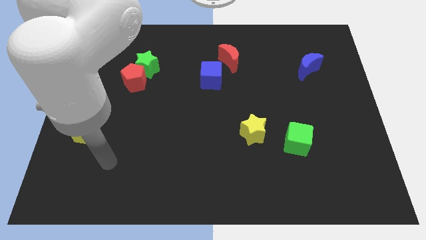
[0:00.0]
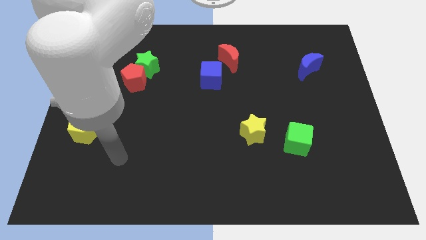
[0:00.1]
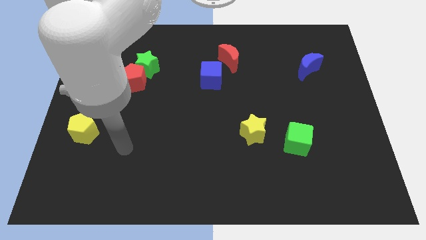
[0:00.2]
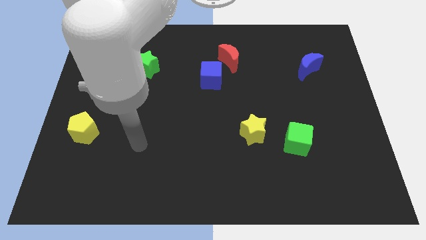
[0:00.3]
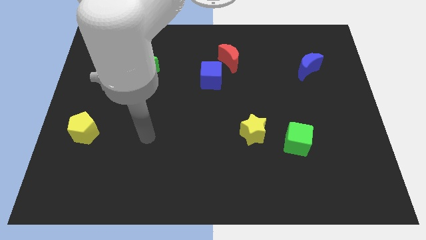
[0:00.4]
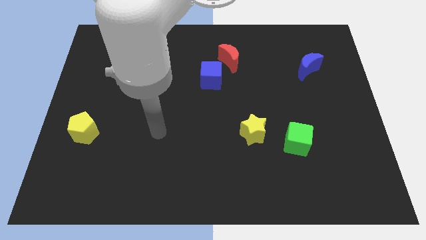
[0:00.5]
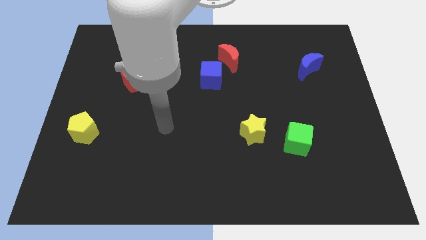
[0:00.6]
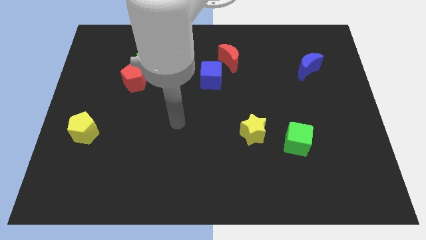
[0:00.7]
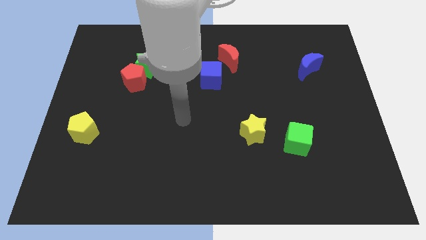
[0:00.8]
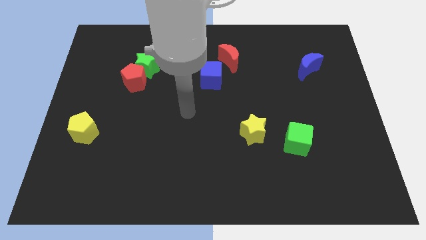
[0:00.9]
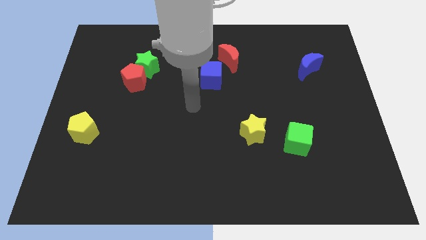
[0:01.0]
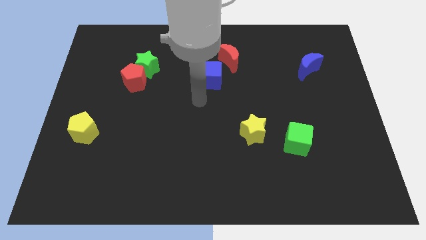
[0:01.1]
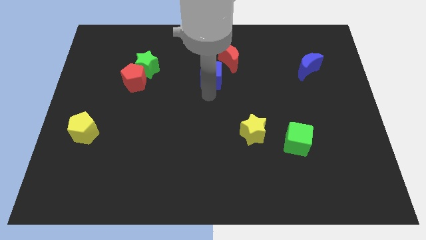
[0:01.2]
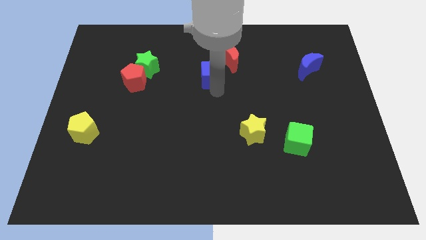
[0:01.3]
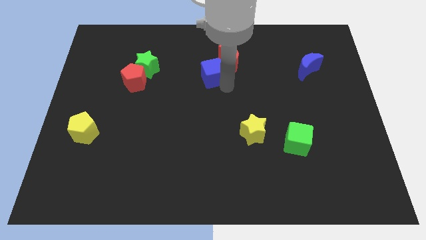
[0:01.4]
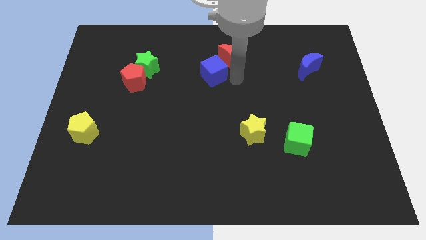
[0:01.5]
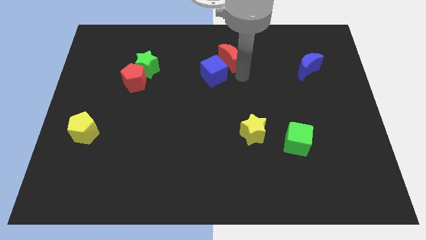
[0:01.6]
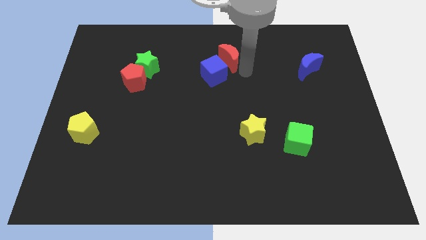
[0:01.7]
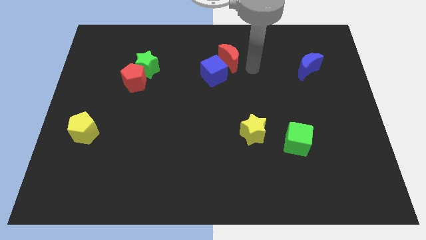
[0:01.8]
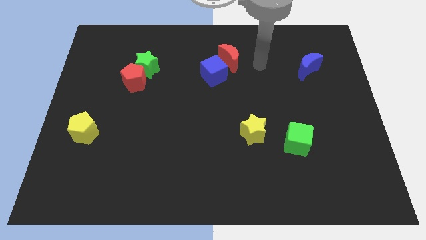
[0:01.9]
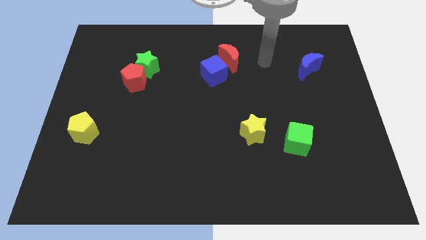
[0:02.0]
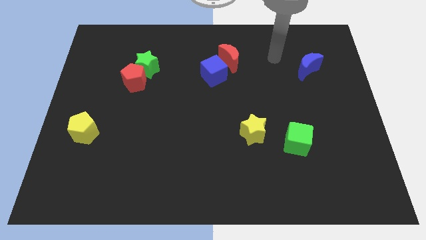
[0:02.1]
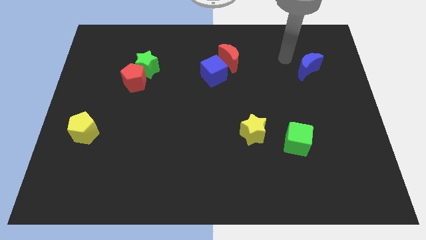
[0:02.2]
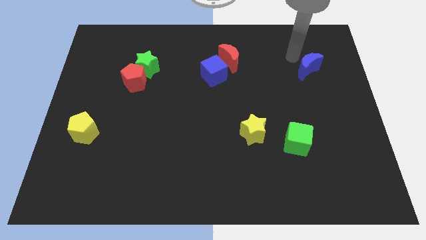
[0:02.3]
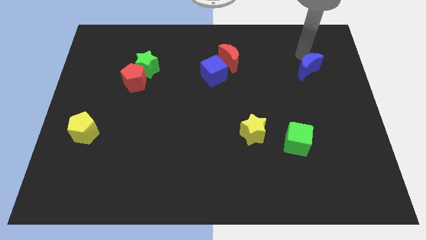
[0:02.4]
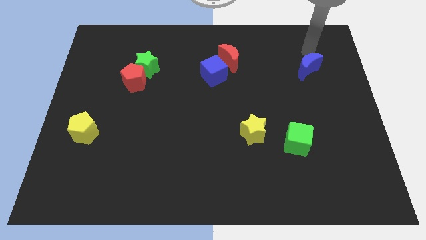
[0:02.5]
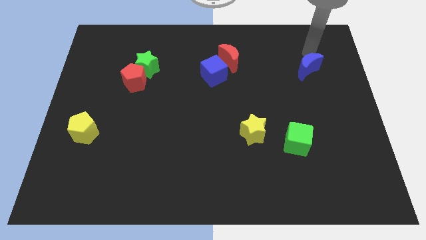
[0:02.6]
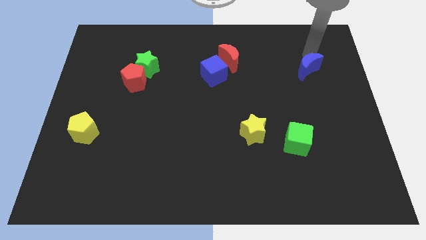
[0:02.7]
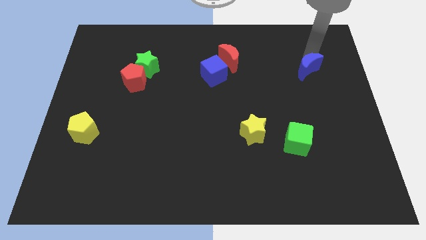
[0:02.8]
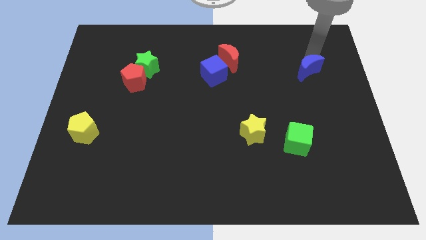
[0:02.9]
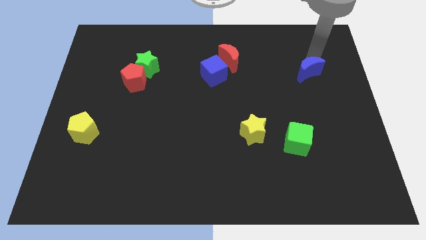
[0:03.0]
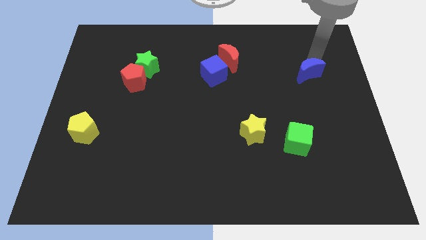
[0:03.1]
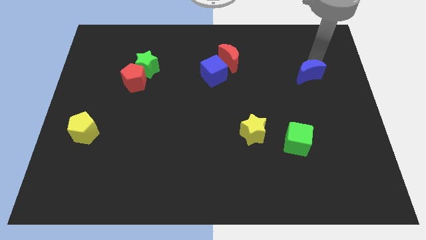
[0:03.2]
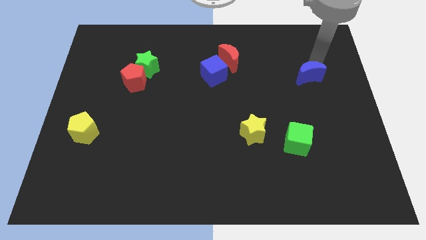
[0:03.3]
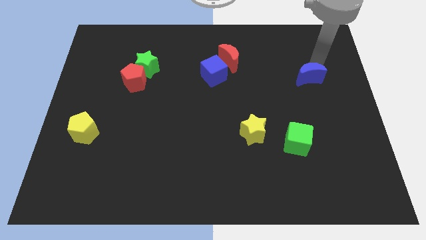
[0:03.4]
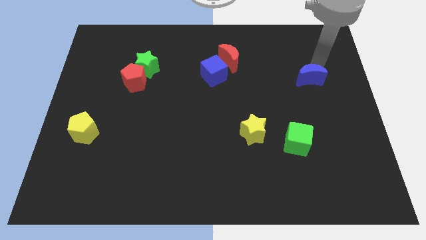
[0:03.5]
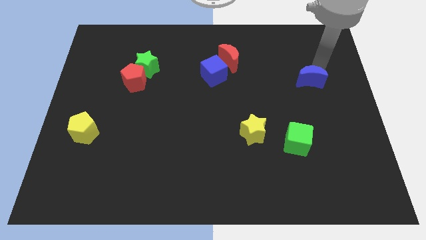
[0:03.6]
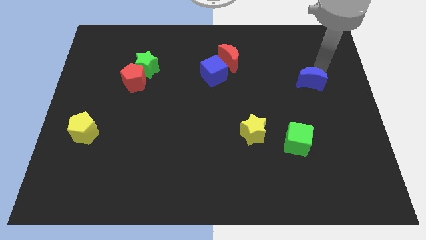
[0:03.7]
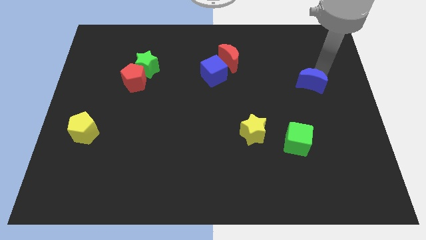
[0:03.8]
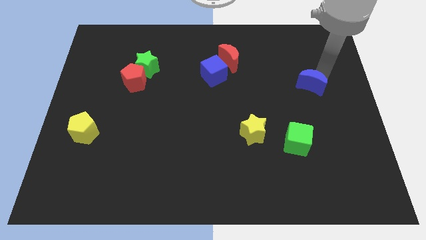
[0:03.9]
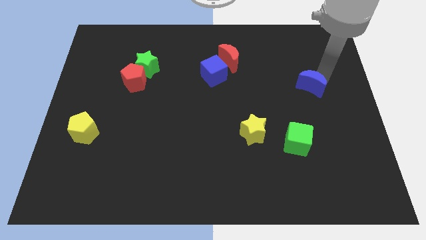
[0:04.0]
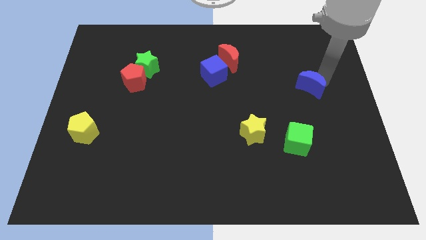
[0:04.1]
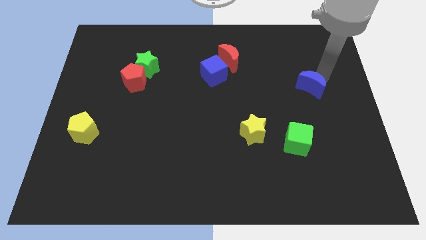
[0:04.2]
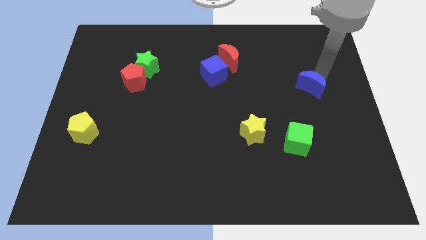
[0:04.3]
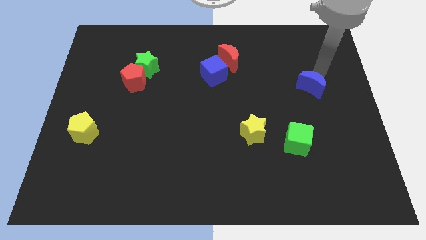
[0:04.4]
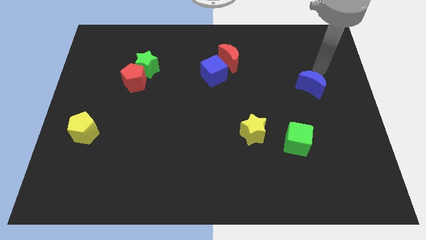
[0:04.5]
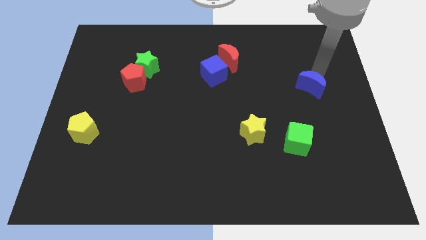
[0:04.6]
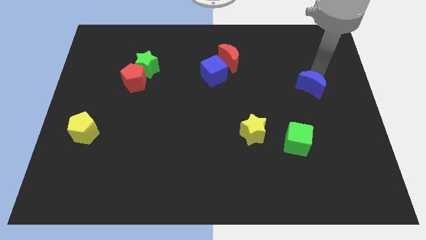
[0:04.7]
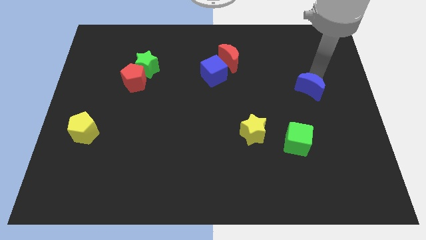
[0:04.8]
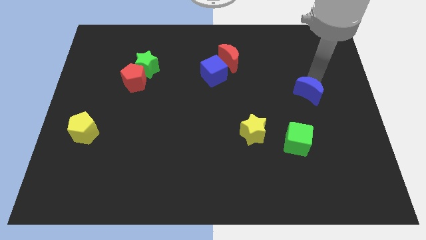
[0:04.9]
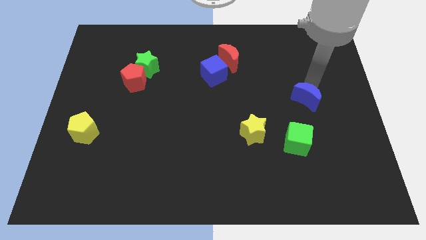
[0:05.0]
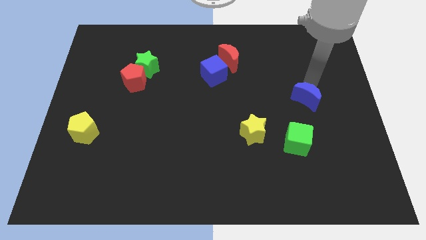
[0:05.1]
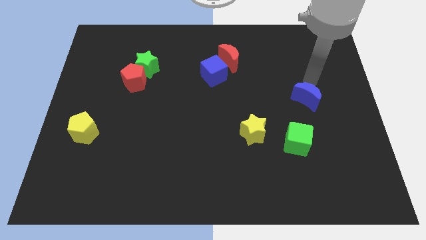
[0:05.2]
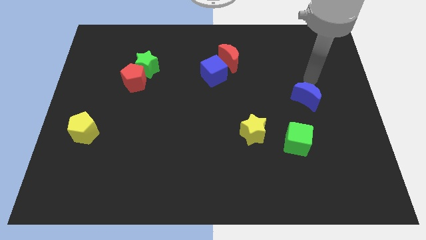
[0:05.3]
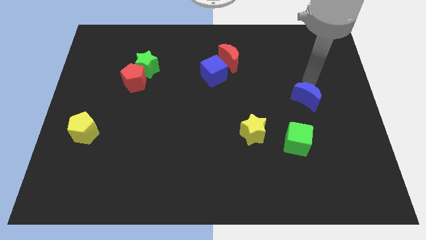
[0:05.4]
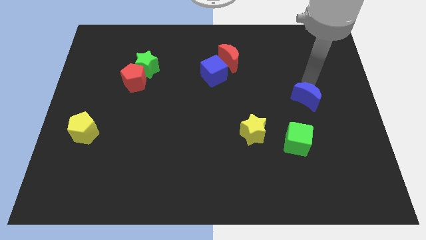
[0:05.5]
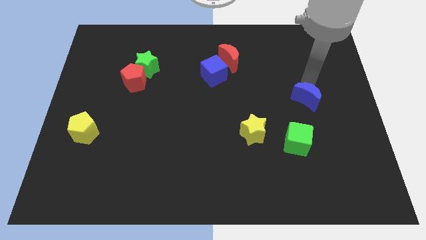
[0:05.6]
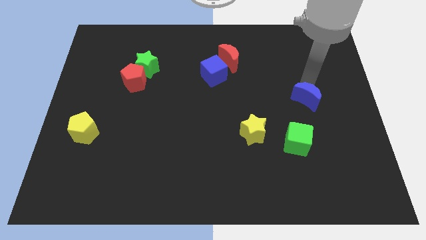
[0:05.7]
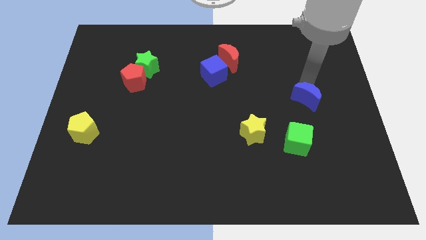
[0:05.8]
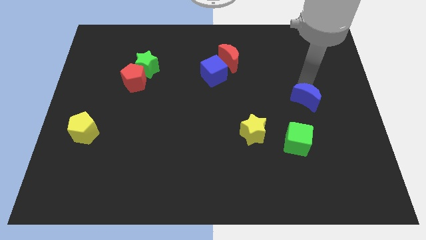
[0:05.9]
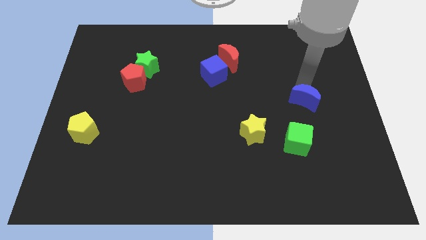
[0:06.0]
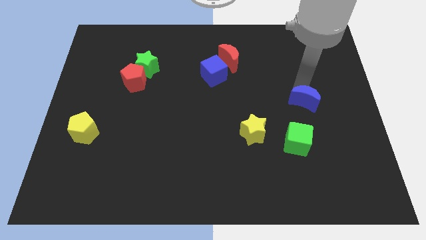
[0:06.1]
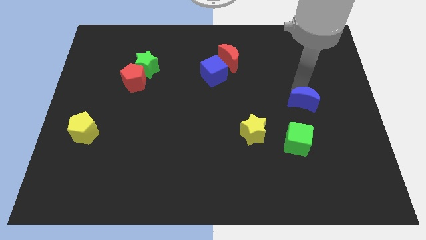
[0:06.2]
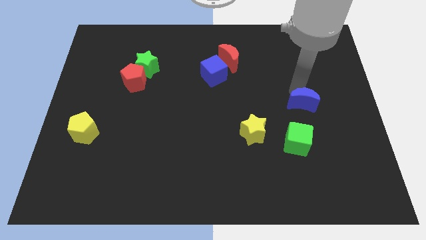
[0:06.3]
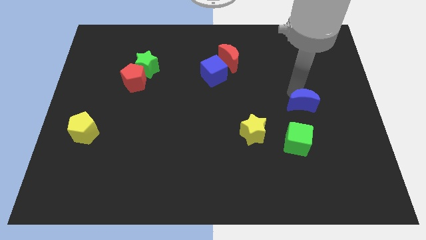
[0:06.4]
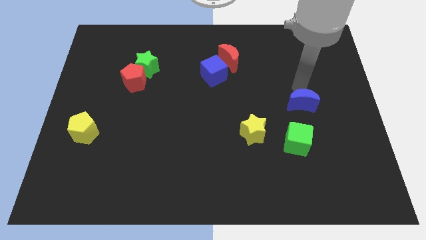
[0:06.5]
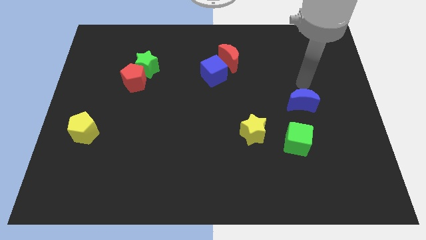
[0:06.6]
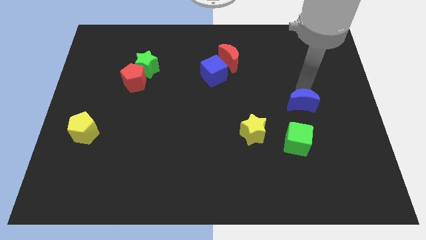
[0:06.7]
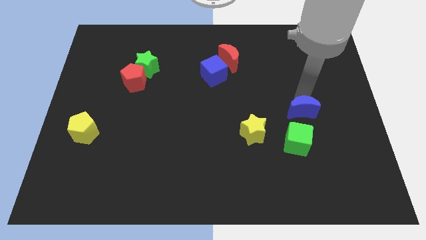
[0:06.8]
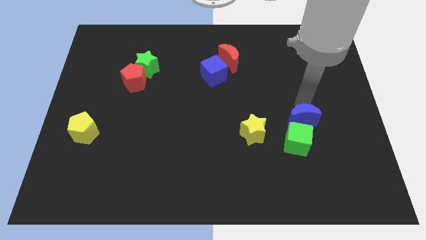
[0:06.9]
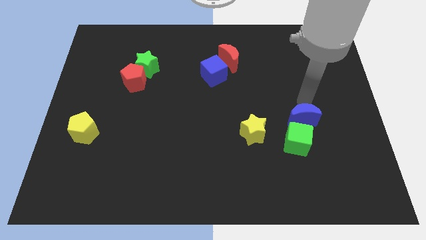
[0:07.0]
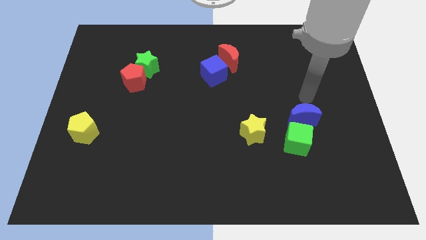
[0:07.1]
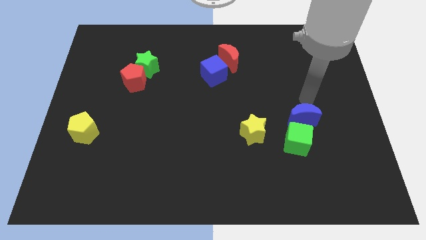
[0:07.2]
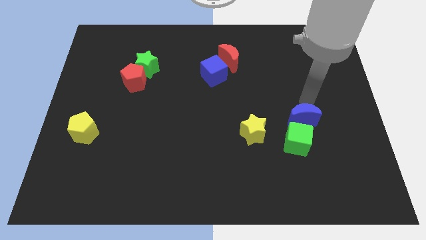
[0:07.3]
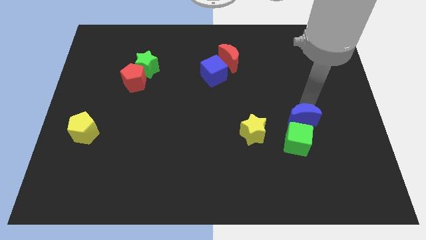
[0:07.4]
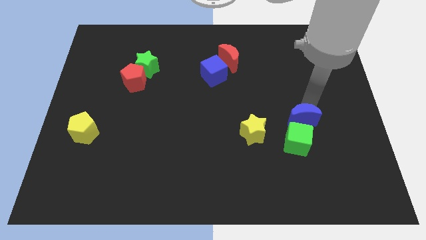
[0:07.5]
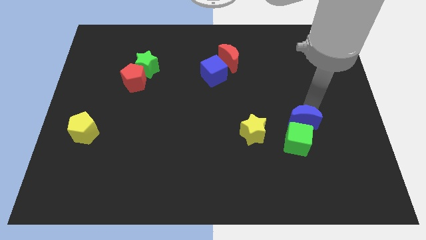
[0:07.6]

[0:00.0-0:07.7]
move the blue moon close to the green cube

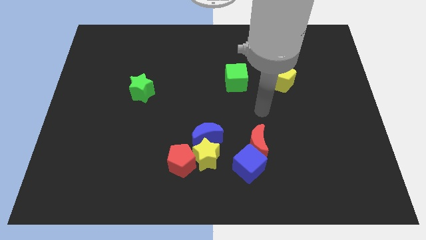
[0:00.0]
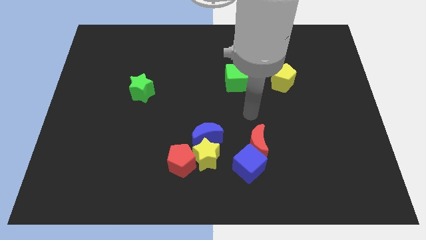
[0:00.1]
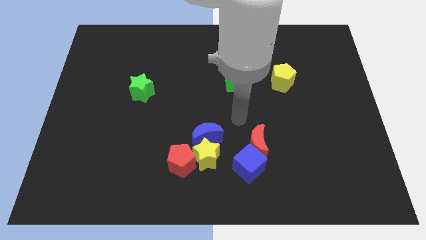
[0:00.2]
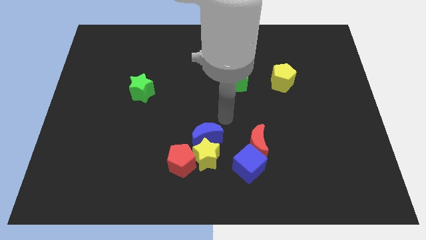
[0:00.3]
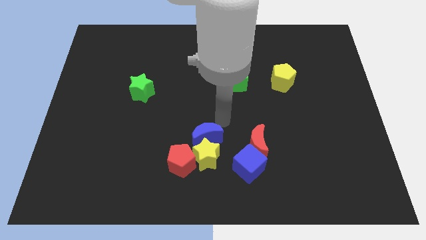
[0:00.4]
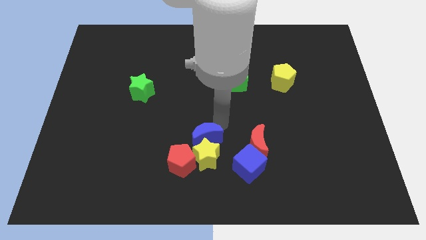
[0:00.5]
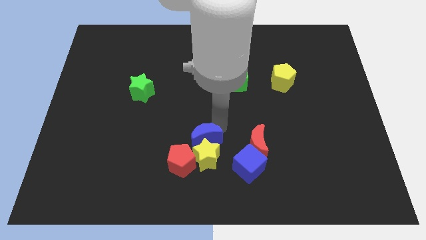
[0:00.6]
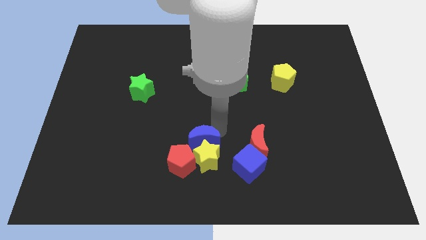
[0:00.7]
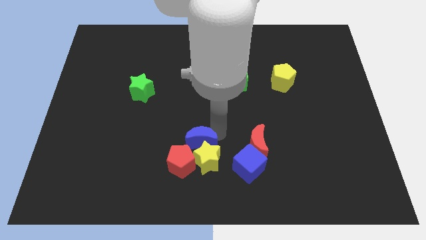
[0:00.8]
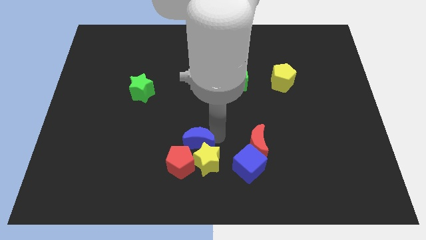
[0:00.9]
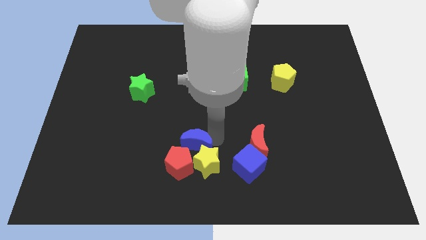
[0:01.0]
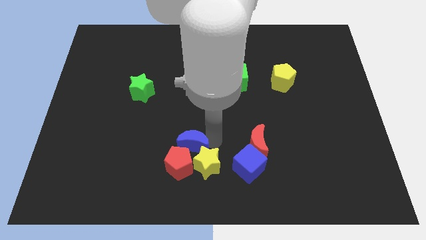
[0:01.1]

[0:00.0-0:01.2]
push the blue moon close to the red pentagon
